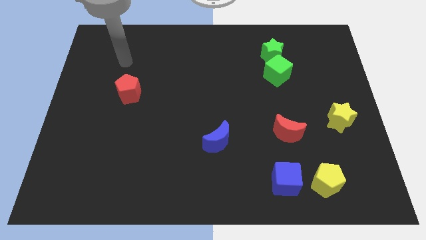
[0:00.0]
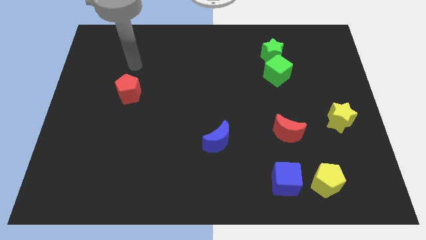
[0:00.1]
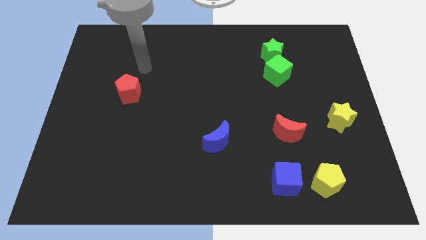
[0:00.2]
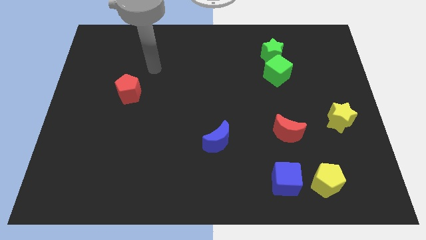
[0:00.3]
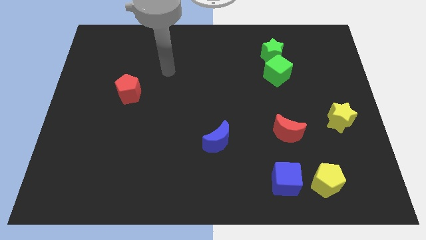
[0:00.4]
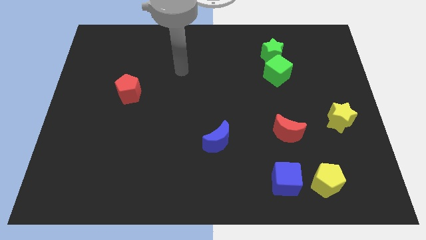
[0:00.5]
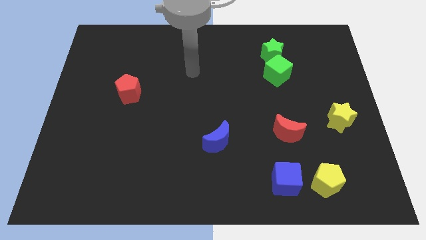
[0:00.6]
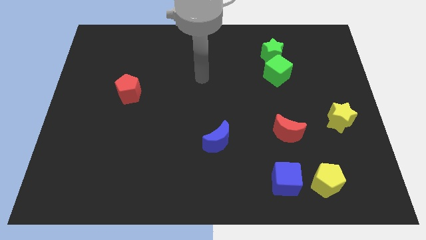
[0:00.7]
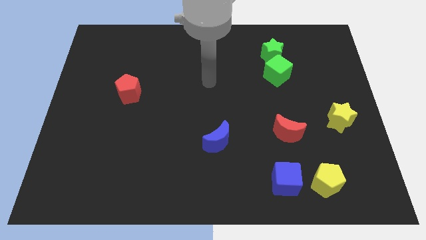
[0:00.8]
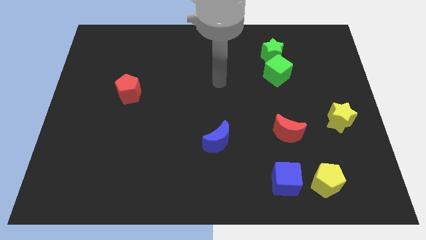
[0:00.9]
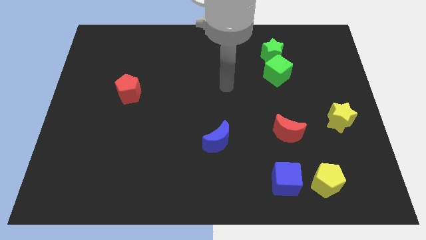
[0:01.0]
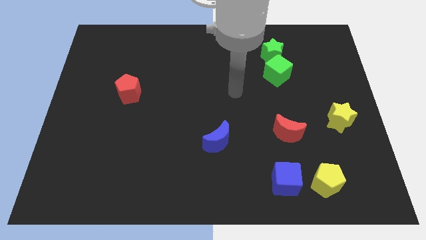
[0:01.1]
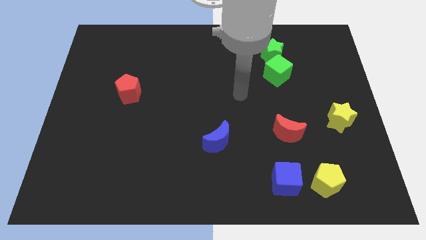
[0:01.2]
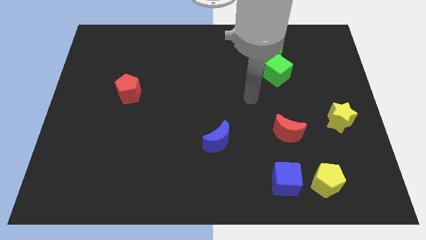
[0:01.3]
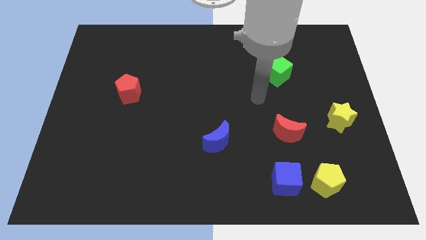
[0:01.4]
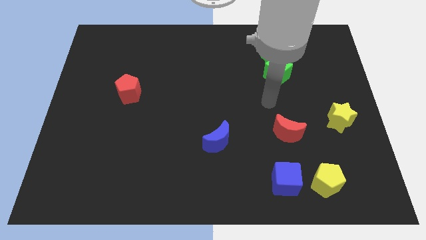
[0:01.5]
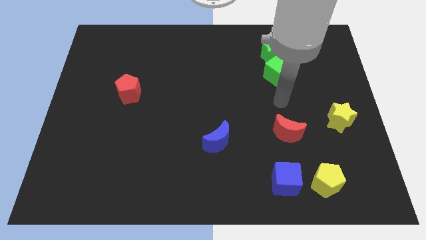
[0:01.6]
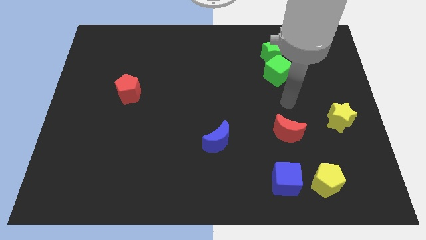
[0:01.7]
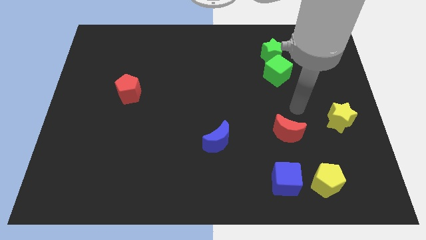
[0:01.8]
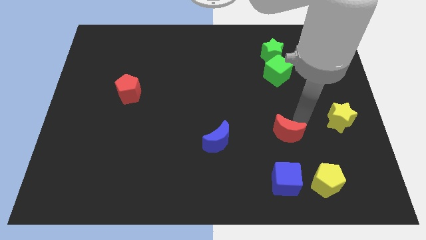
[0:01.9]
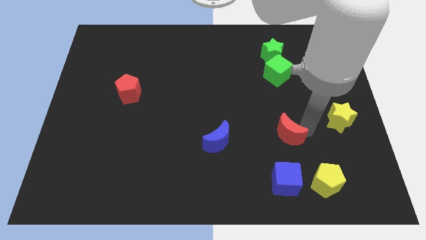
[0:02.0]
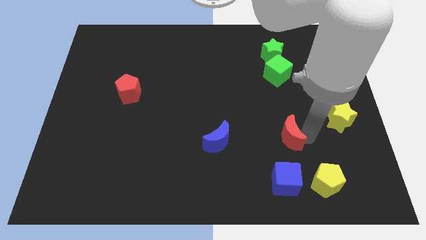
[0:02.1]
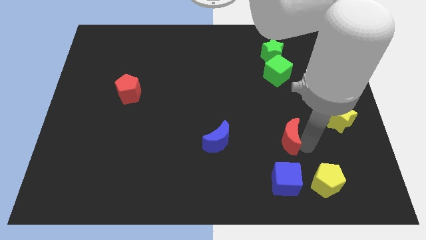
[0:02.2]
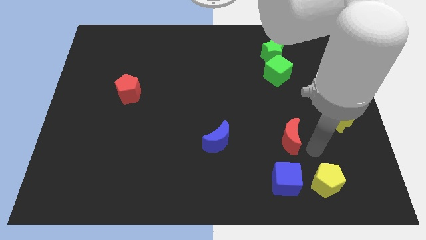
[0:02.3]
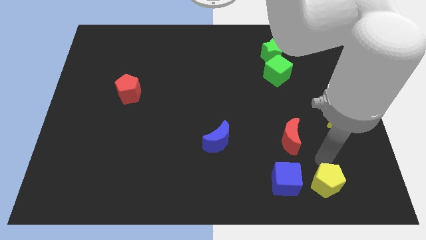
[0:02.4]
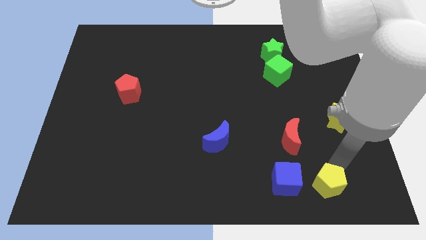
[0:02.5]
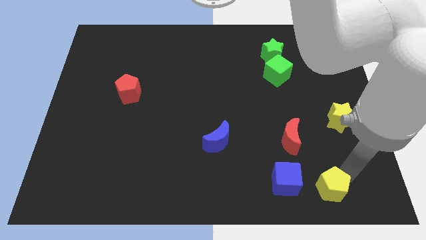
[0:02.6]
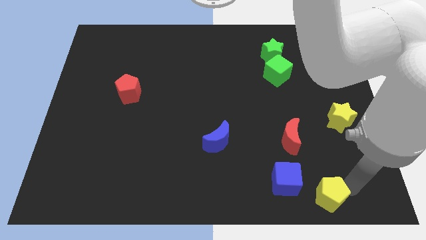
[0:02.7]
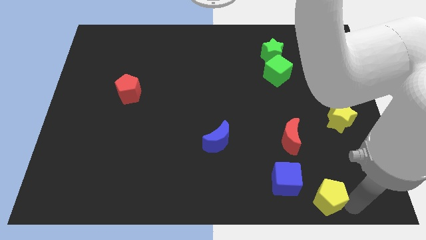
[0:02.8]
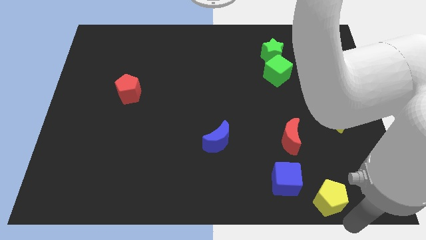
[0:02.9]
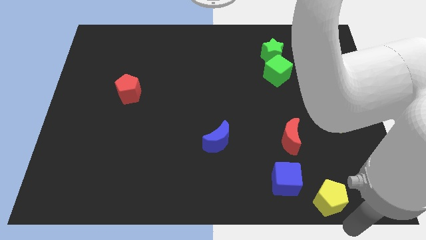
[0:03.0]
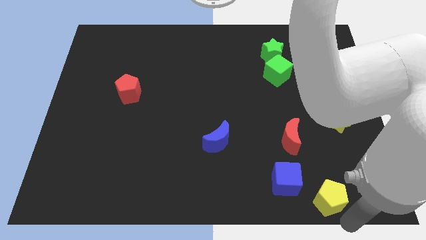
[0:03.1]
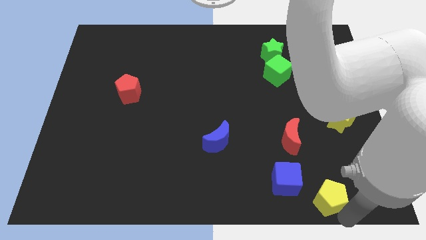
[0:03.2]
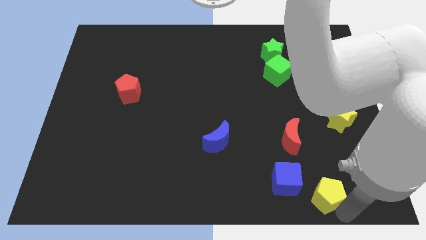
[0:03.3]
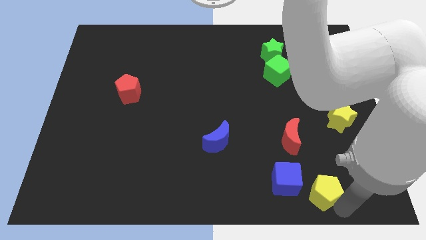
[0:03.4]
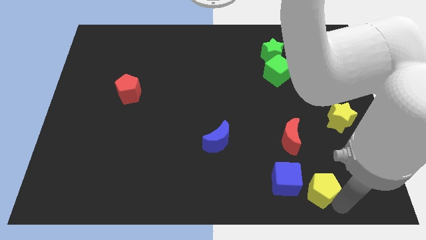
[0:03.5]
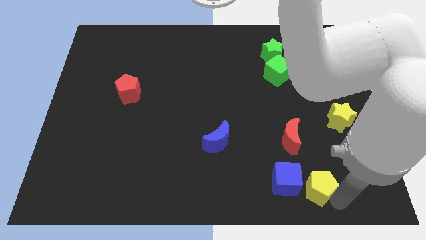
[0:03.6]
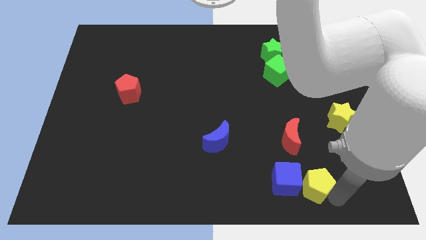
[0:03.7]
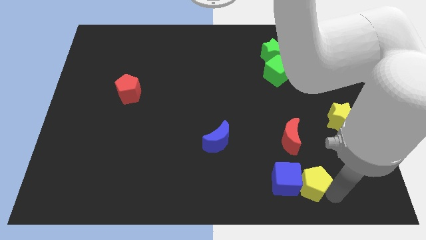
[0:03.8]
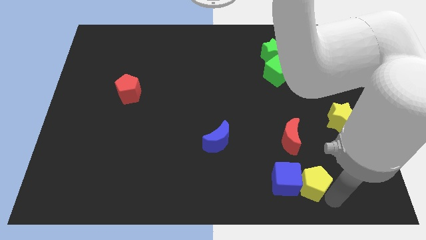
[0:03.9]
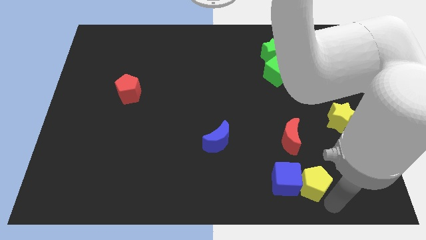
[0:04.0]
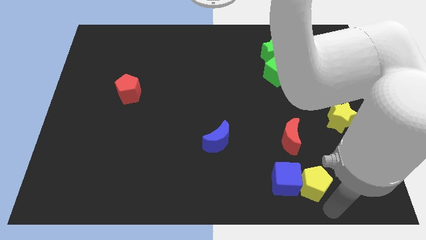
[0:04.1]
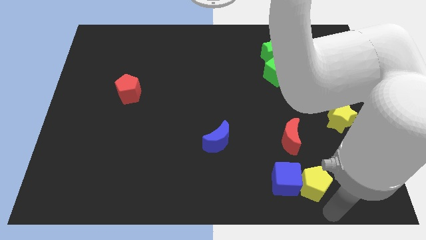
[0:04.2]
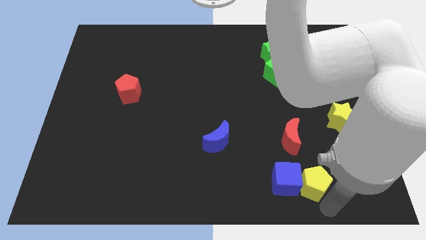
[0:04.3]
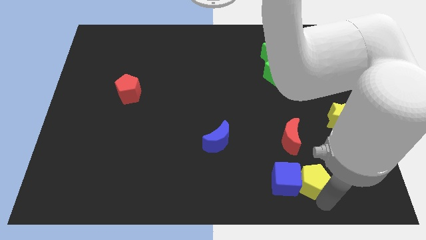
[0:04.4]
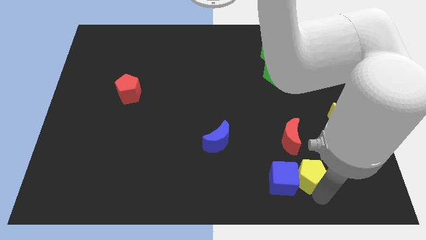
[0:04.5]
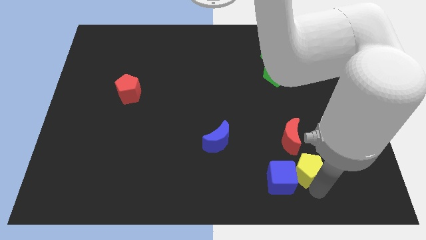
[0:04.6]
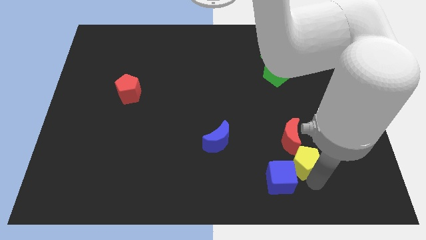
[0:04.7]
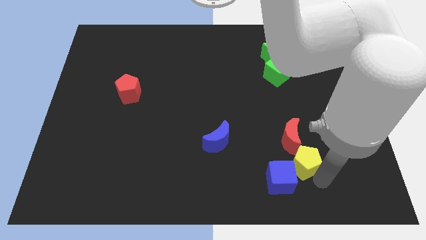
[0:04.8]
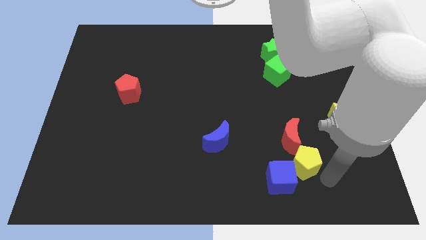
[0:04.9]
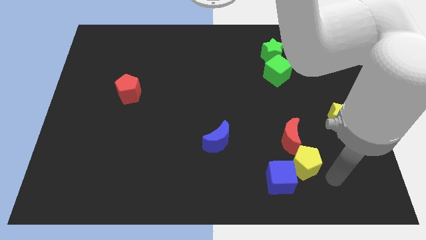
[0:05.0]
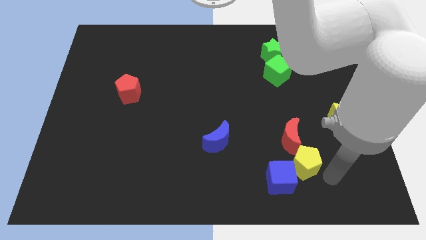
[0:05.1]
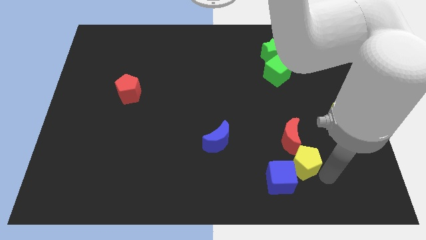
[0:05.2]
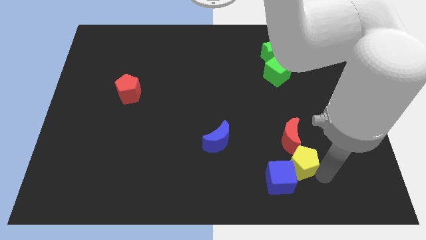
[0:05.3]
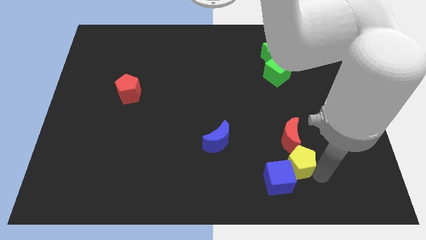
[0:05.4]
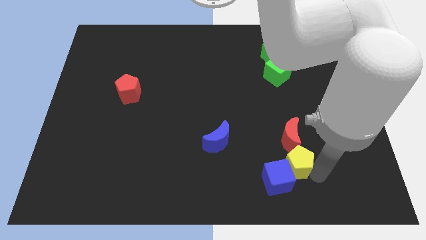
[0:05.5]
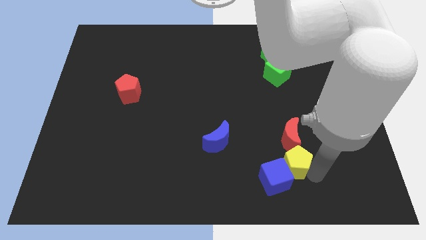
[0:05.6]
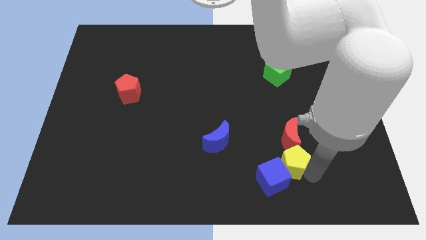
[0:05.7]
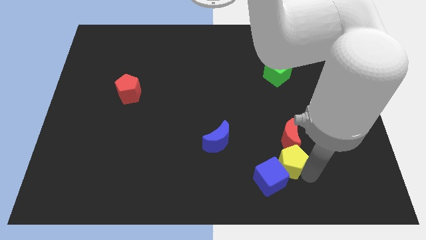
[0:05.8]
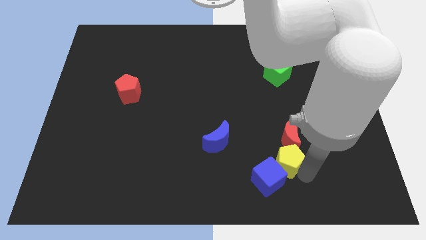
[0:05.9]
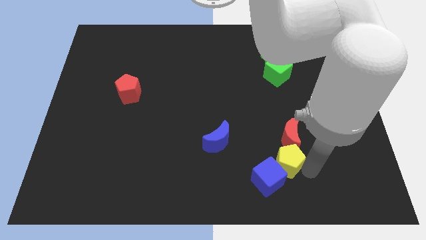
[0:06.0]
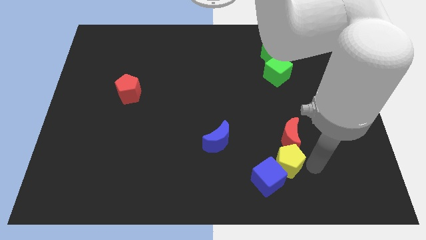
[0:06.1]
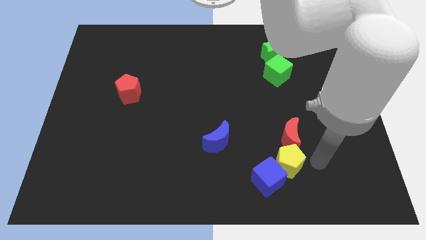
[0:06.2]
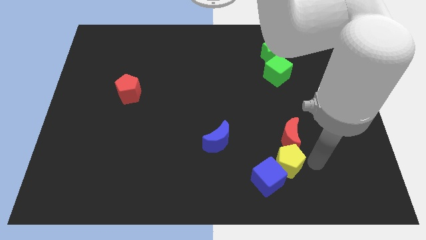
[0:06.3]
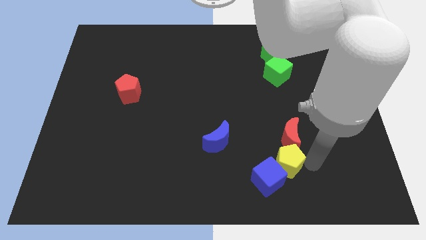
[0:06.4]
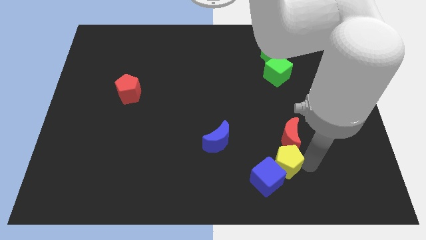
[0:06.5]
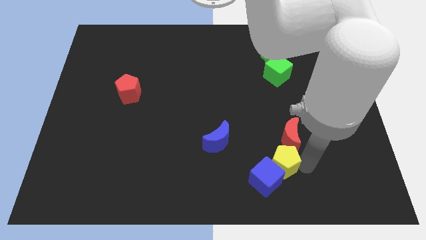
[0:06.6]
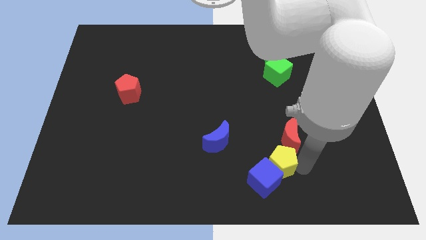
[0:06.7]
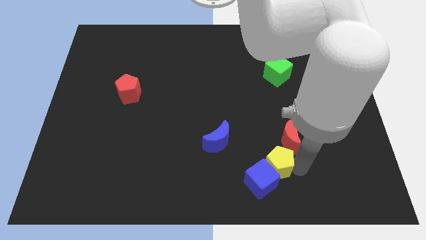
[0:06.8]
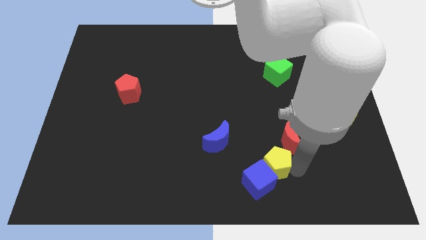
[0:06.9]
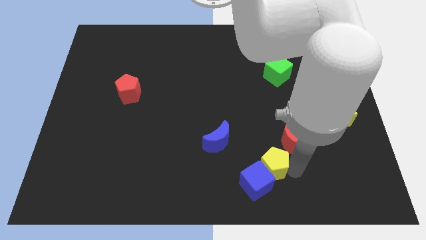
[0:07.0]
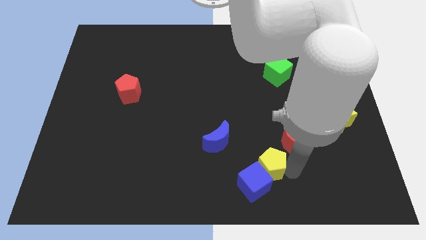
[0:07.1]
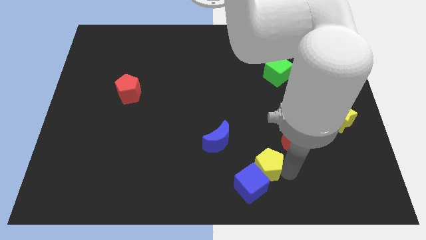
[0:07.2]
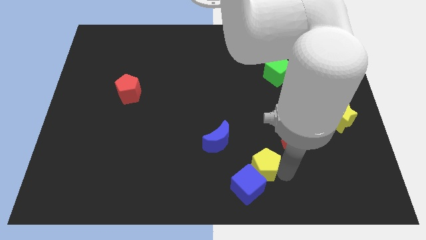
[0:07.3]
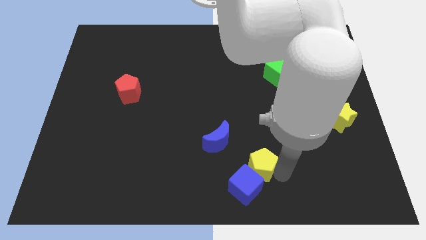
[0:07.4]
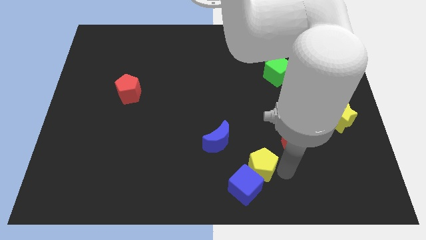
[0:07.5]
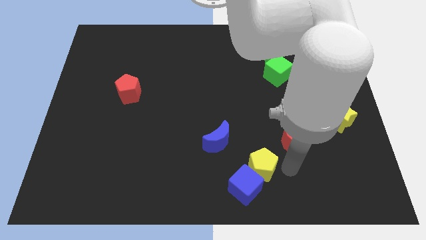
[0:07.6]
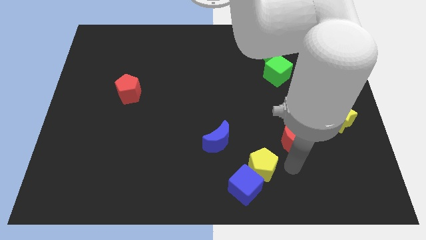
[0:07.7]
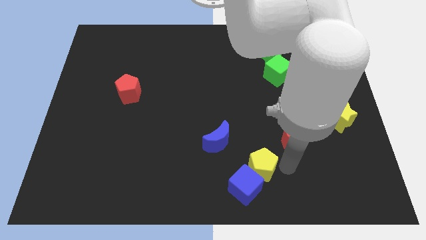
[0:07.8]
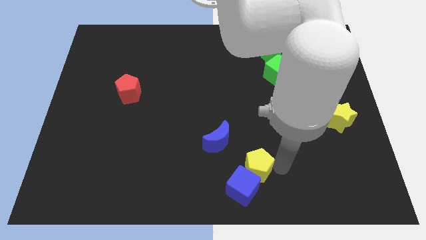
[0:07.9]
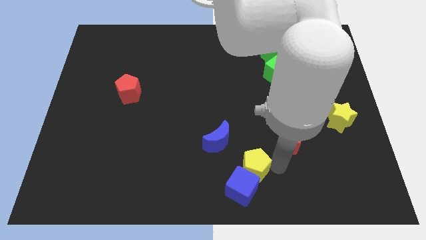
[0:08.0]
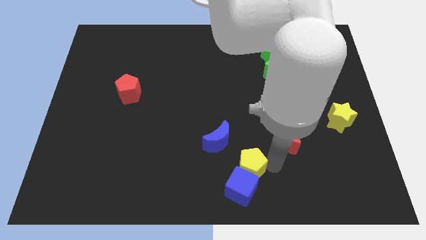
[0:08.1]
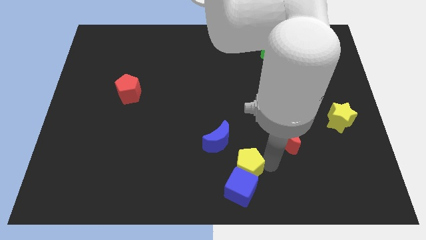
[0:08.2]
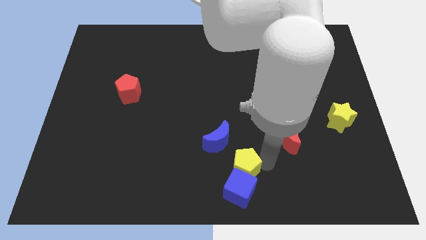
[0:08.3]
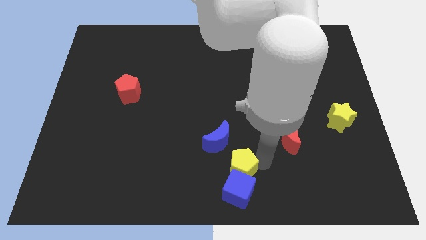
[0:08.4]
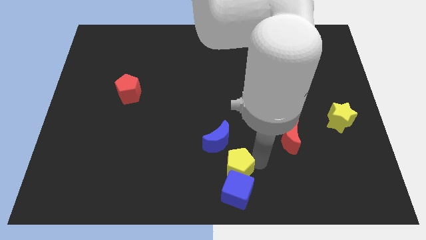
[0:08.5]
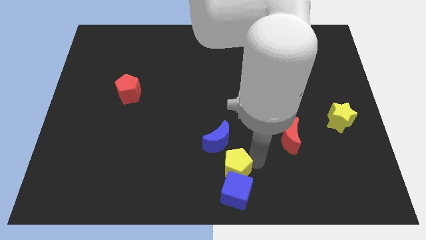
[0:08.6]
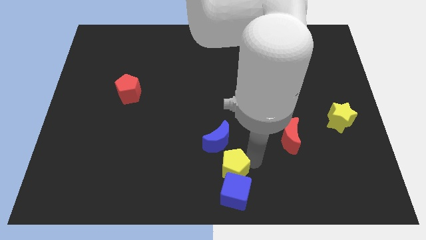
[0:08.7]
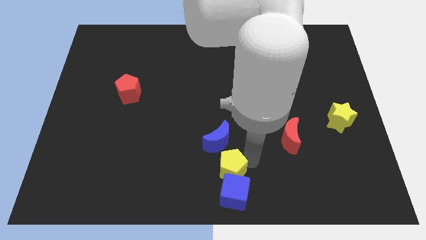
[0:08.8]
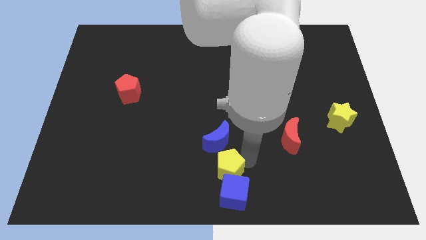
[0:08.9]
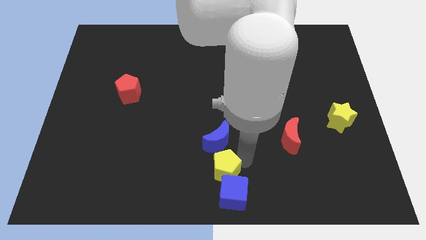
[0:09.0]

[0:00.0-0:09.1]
push the yellow pentagon left
